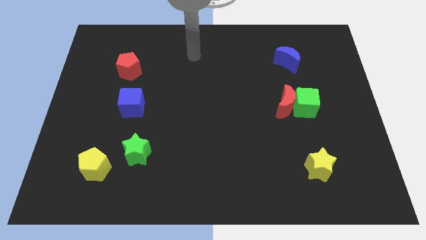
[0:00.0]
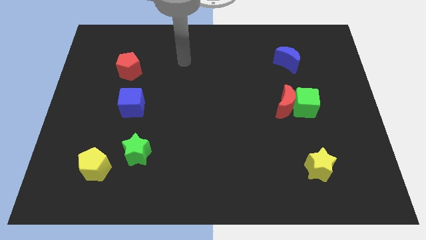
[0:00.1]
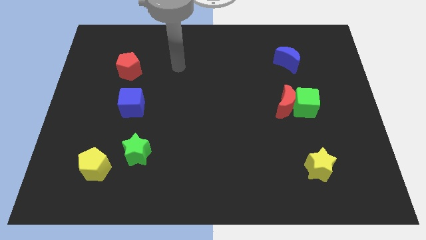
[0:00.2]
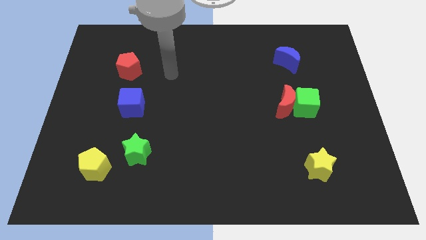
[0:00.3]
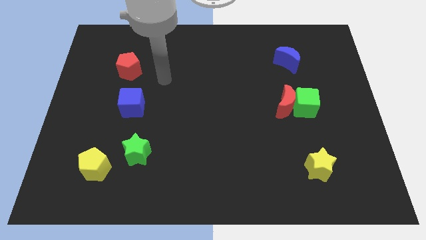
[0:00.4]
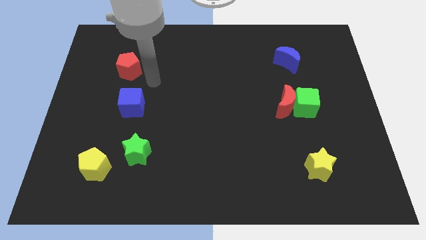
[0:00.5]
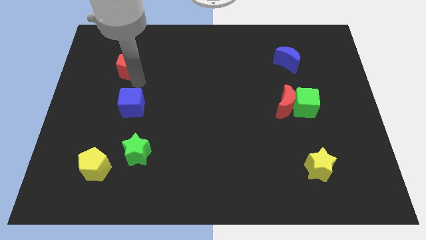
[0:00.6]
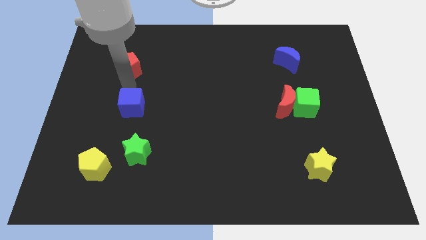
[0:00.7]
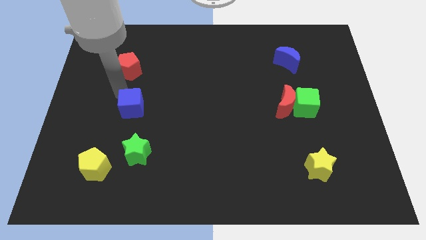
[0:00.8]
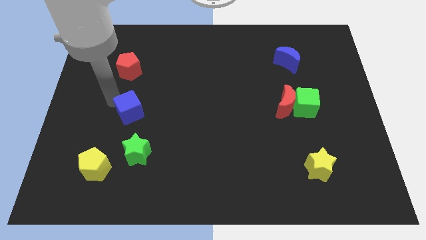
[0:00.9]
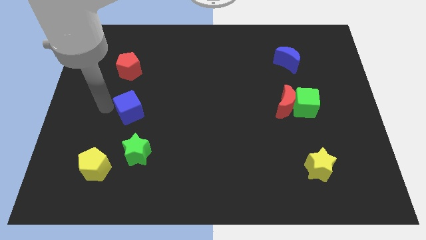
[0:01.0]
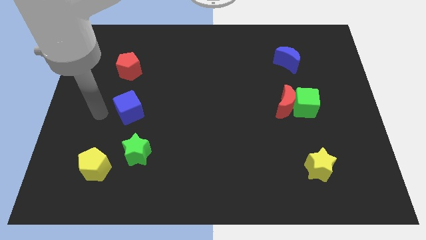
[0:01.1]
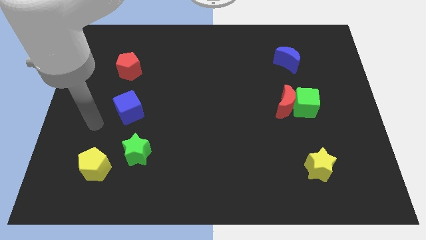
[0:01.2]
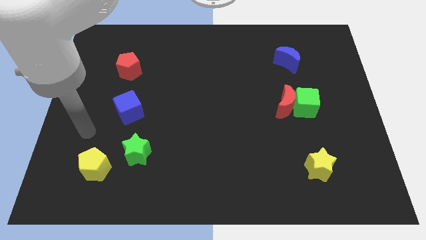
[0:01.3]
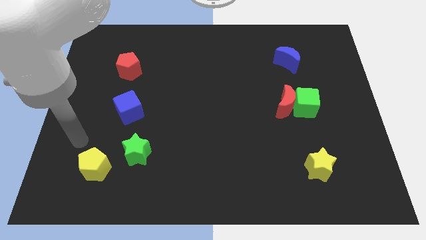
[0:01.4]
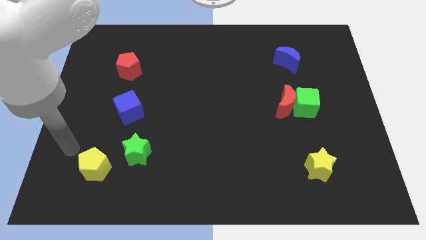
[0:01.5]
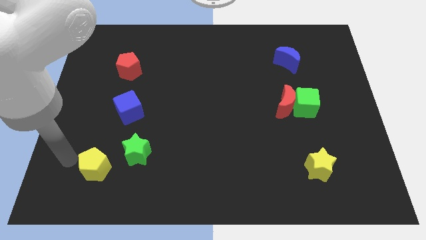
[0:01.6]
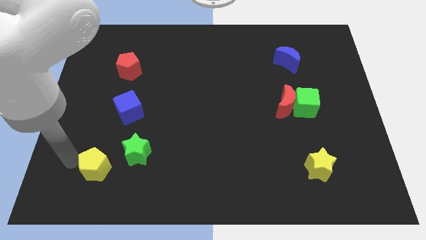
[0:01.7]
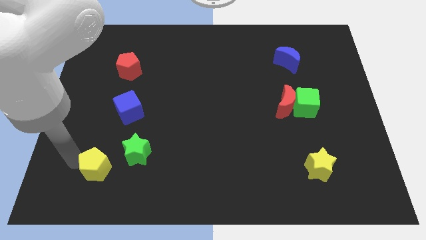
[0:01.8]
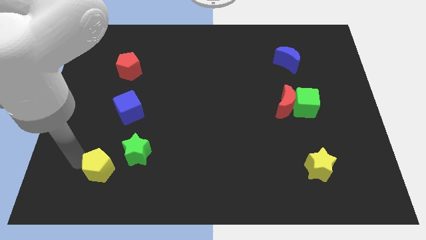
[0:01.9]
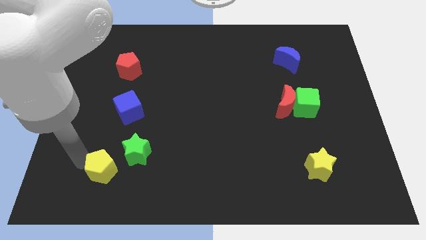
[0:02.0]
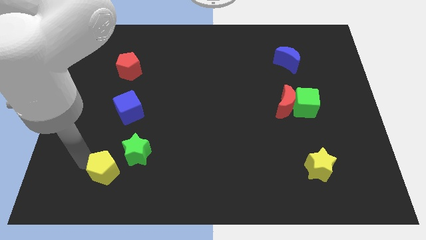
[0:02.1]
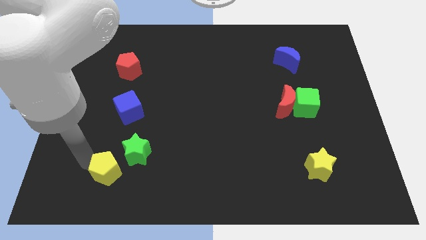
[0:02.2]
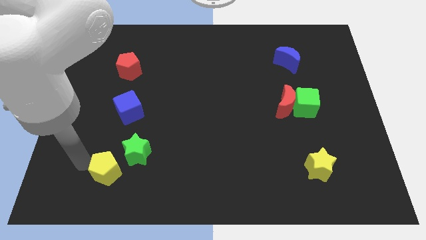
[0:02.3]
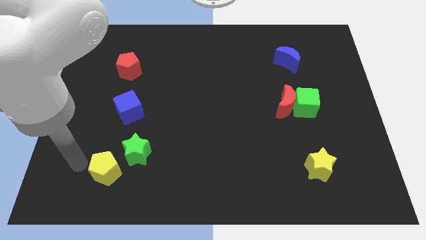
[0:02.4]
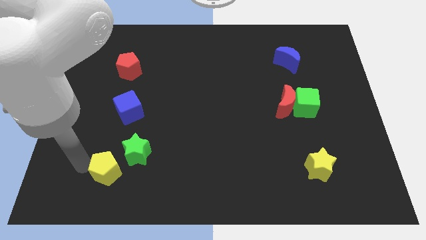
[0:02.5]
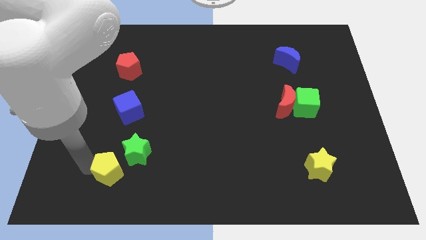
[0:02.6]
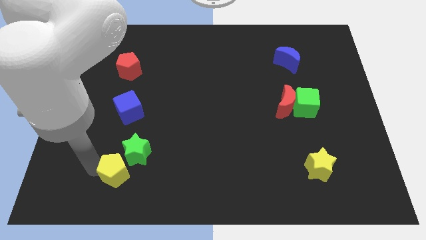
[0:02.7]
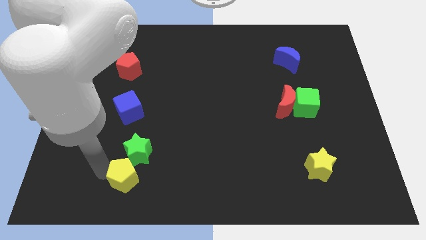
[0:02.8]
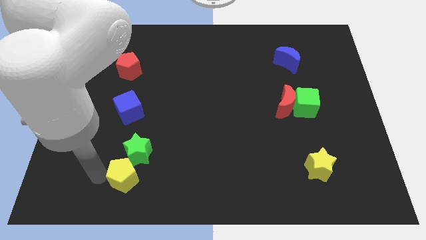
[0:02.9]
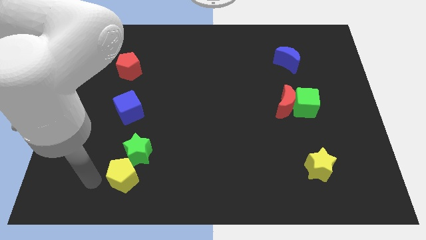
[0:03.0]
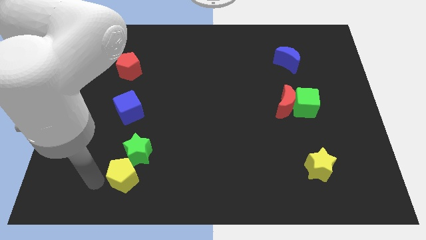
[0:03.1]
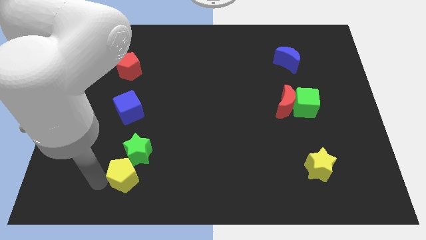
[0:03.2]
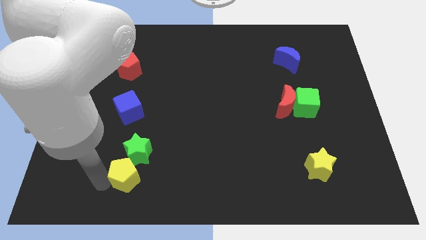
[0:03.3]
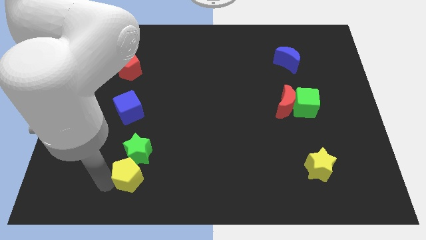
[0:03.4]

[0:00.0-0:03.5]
push the yellow pentagon right somewhat

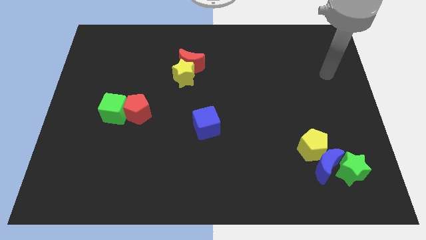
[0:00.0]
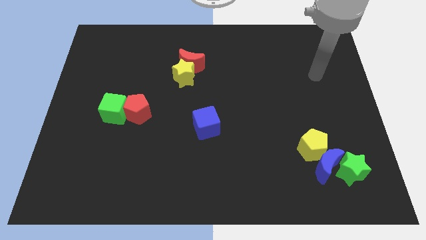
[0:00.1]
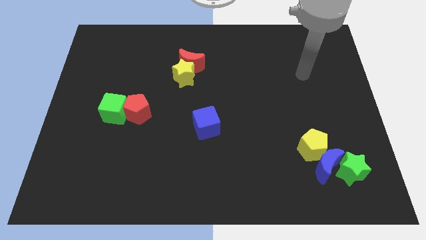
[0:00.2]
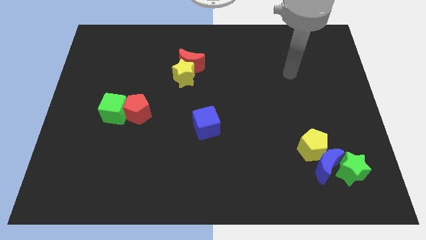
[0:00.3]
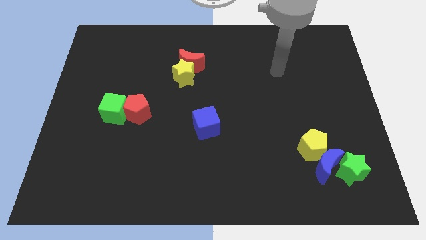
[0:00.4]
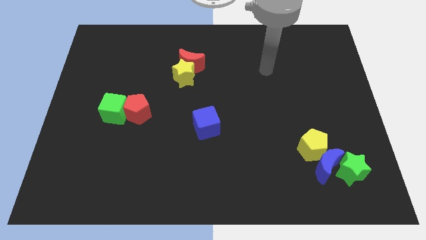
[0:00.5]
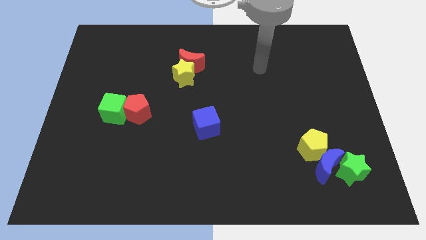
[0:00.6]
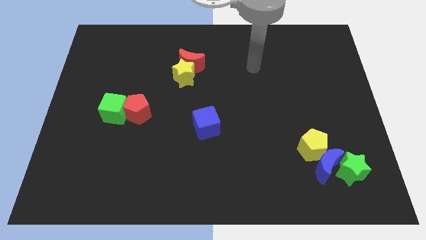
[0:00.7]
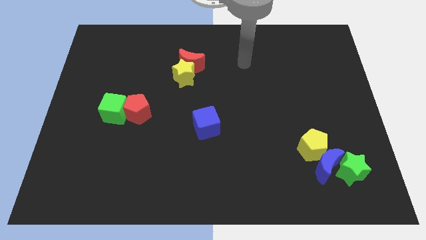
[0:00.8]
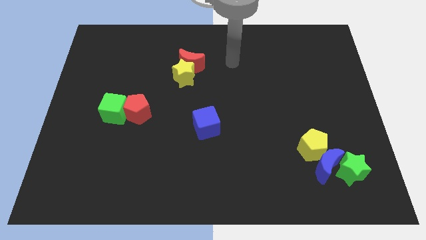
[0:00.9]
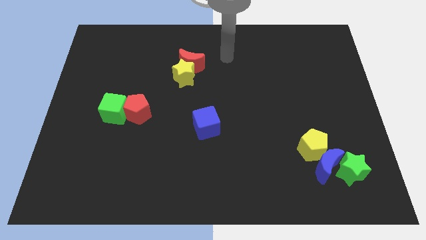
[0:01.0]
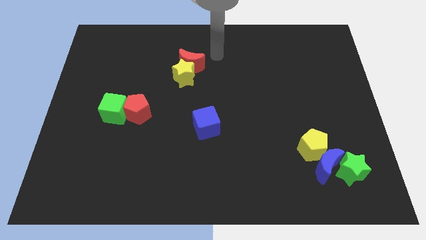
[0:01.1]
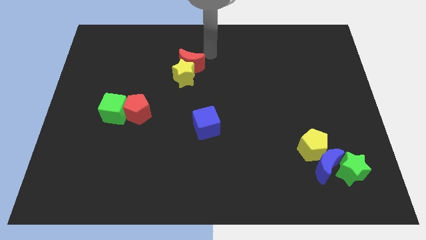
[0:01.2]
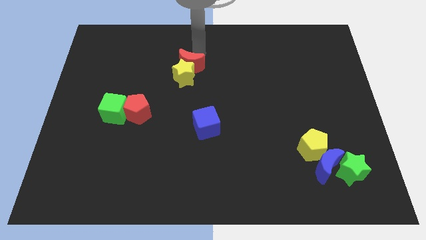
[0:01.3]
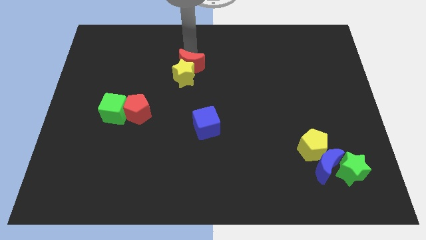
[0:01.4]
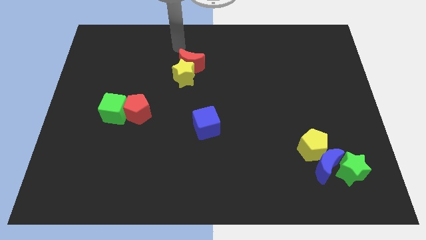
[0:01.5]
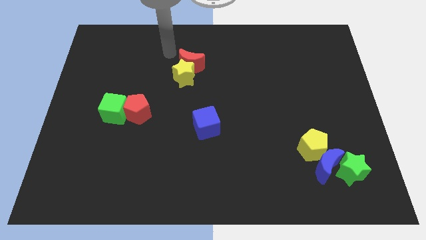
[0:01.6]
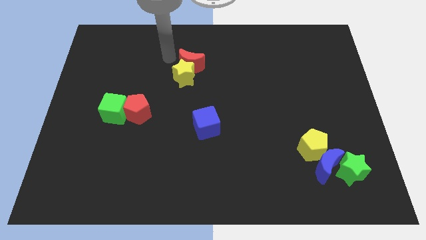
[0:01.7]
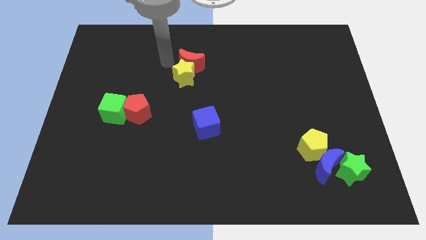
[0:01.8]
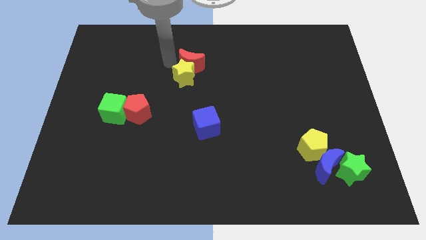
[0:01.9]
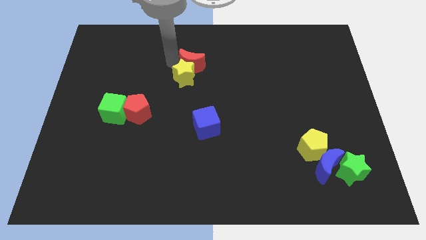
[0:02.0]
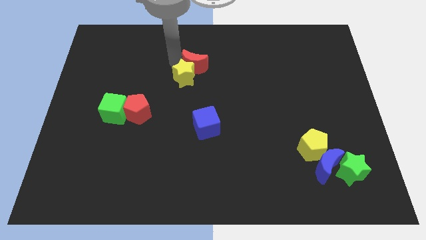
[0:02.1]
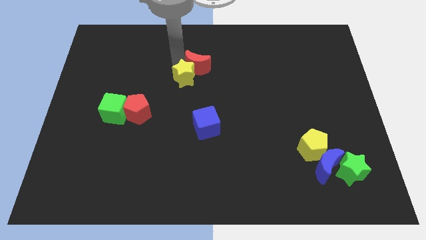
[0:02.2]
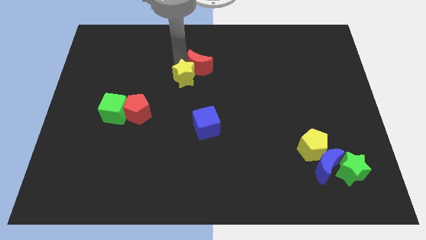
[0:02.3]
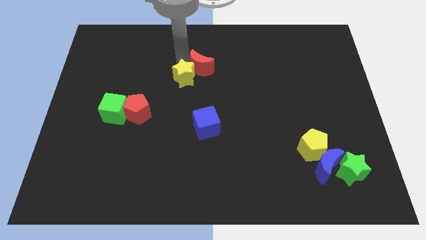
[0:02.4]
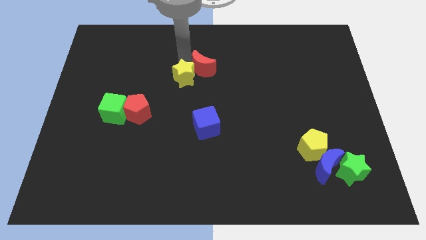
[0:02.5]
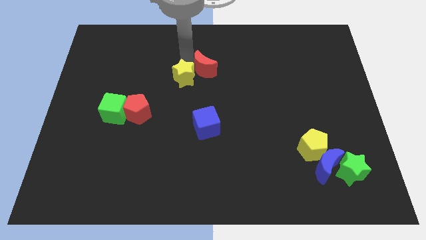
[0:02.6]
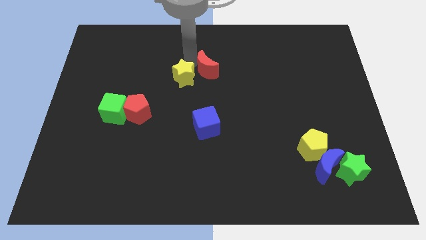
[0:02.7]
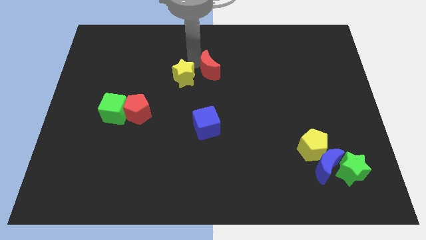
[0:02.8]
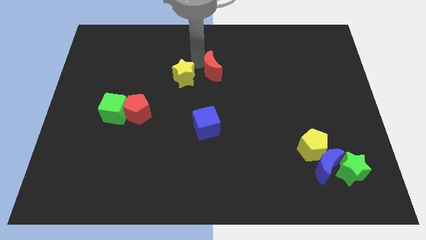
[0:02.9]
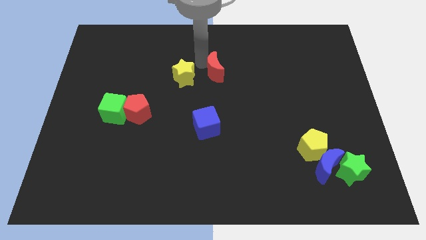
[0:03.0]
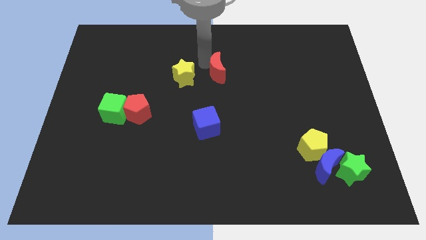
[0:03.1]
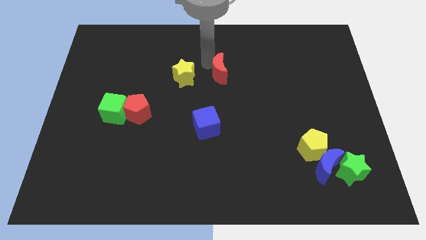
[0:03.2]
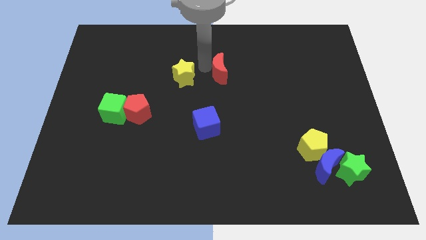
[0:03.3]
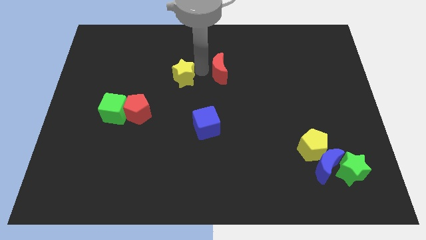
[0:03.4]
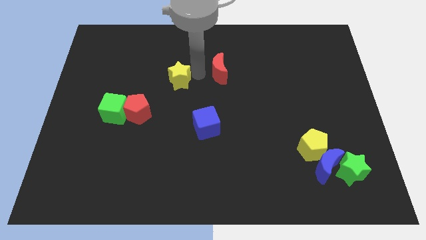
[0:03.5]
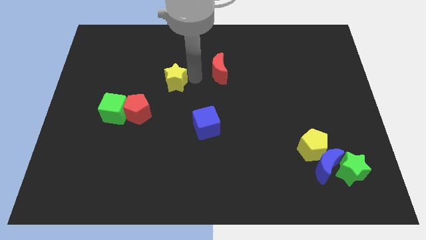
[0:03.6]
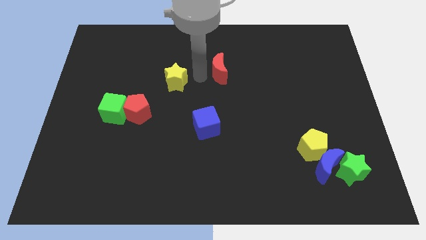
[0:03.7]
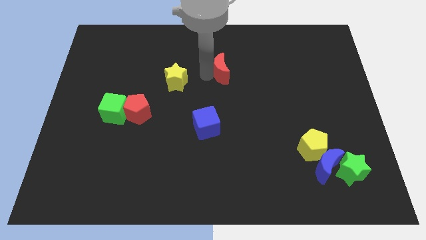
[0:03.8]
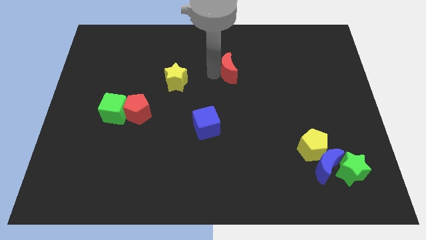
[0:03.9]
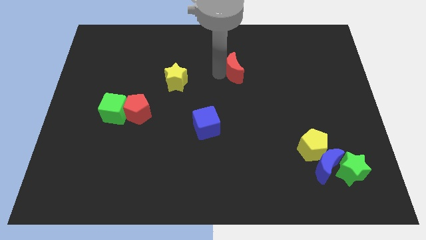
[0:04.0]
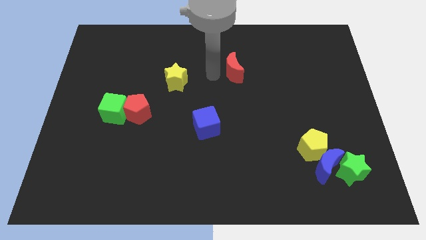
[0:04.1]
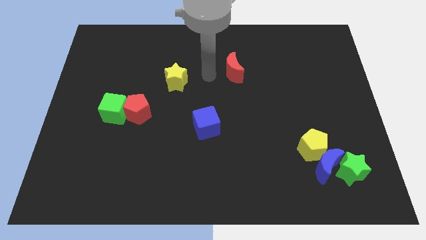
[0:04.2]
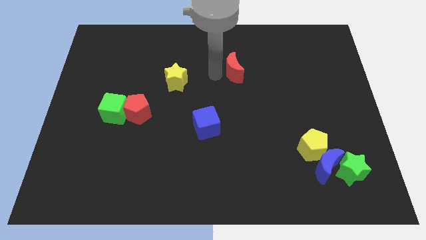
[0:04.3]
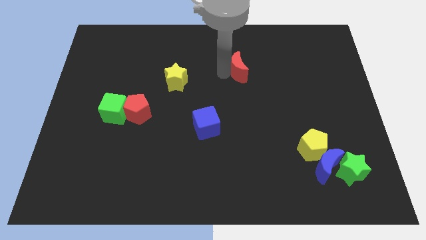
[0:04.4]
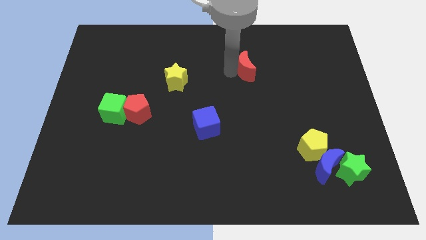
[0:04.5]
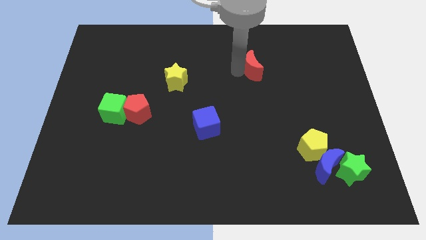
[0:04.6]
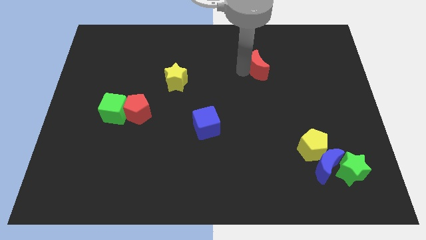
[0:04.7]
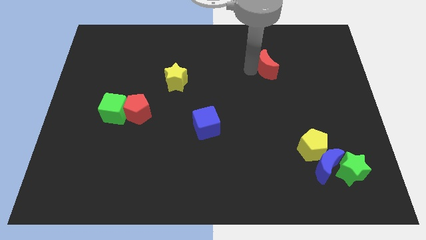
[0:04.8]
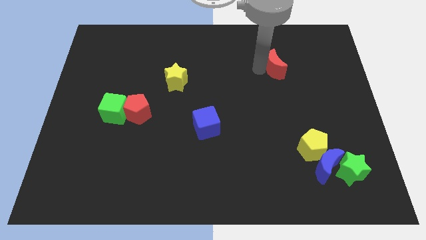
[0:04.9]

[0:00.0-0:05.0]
move the red moon right

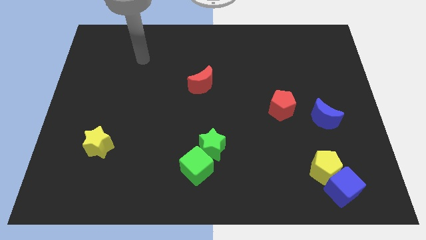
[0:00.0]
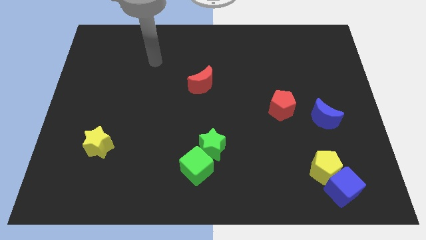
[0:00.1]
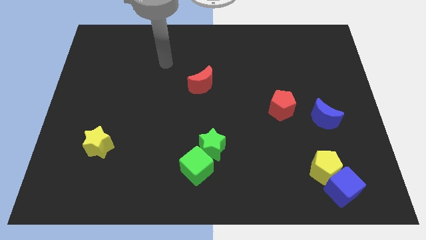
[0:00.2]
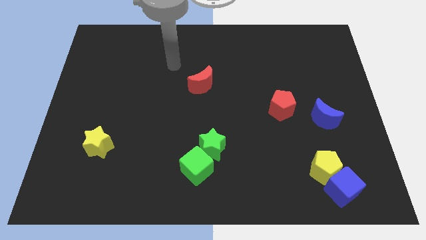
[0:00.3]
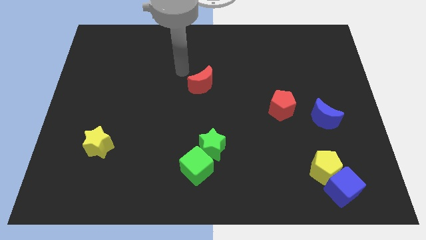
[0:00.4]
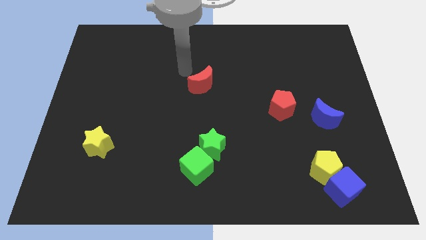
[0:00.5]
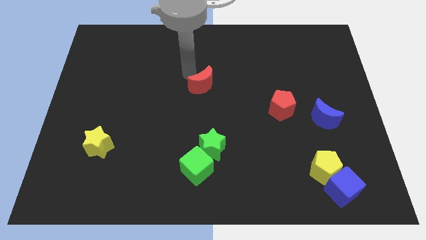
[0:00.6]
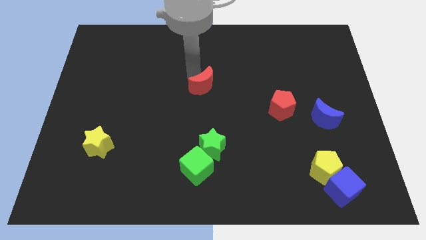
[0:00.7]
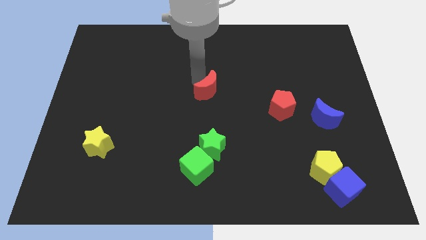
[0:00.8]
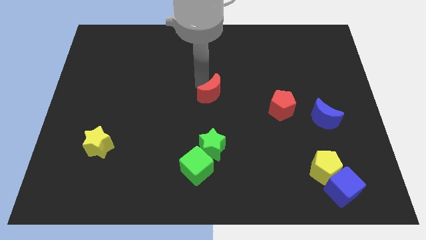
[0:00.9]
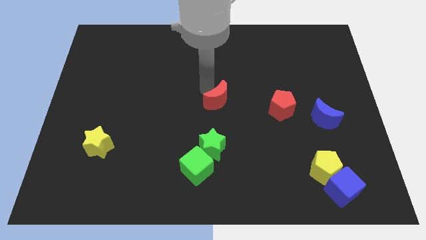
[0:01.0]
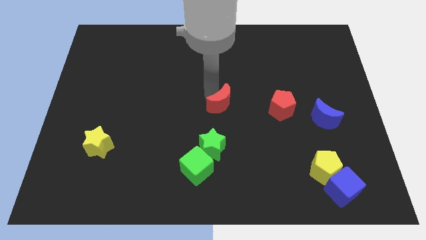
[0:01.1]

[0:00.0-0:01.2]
slide the red moon slightly downwards and right
